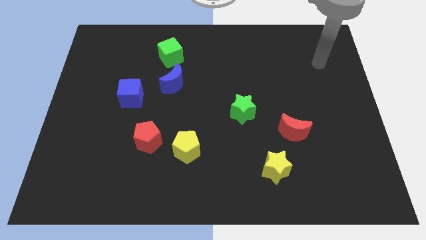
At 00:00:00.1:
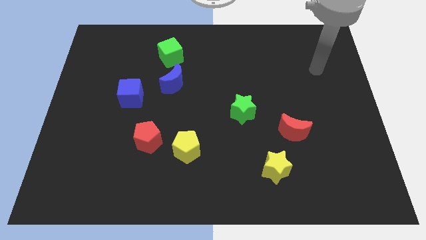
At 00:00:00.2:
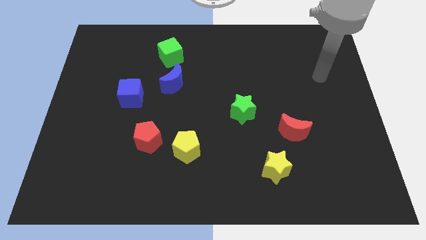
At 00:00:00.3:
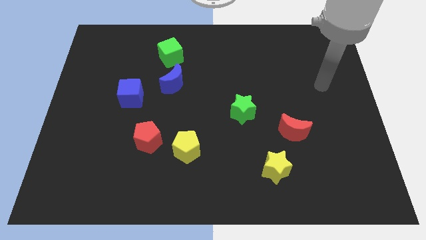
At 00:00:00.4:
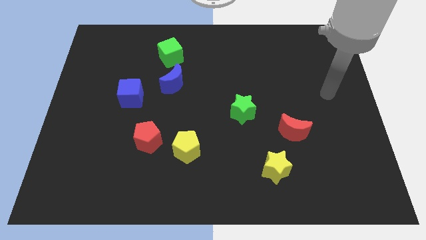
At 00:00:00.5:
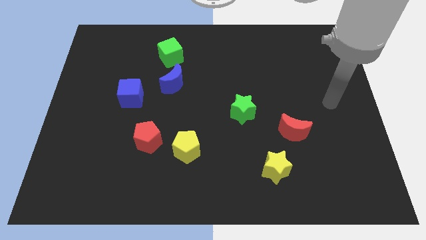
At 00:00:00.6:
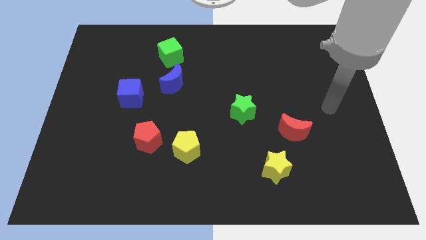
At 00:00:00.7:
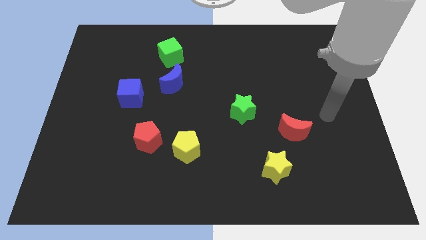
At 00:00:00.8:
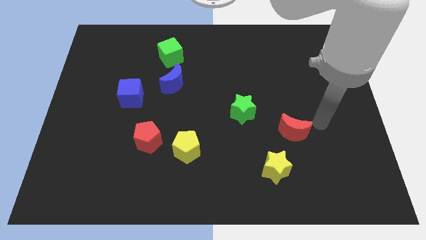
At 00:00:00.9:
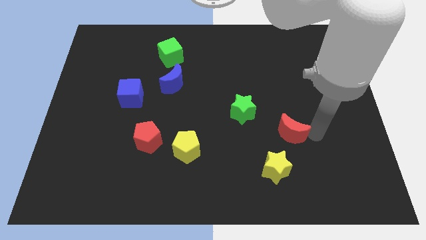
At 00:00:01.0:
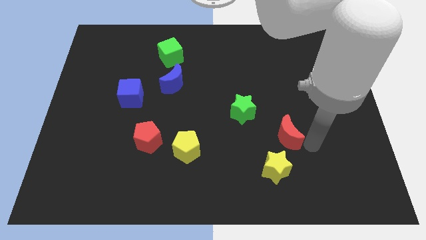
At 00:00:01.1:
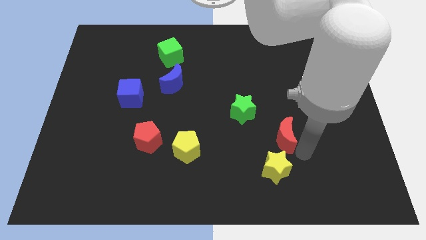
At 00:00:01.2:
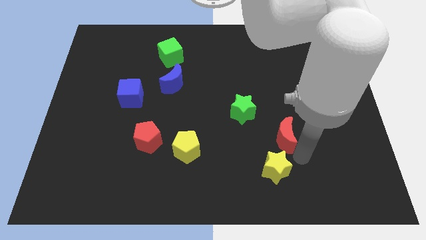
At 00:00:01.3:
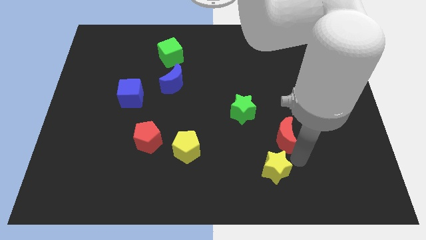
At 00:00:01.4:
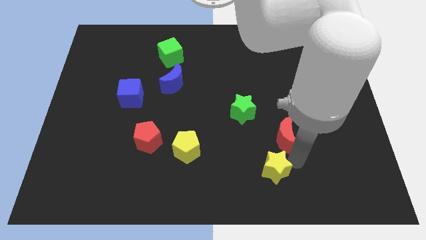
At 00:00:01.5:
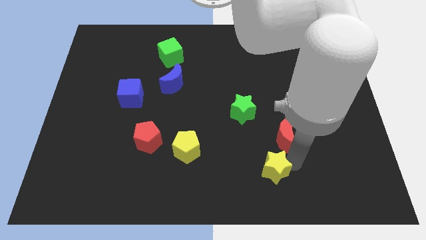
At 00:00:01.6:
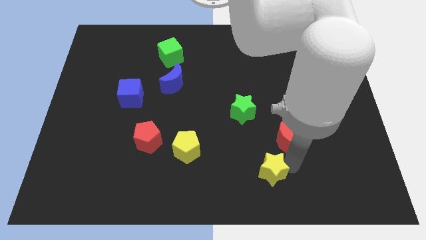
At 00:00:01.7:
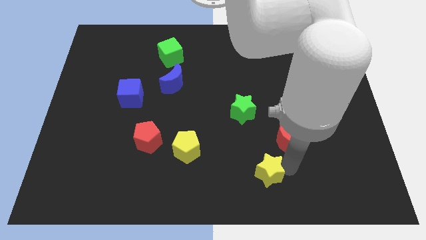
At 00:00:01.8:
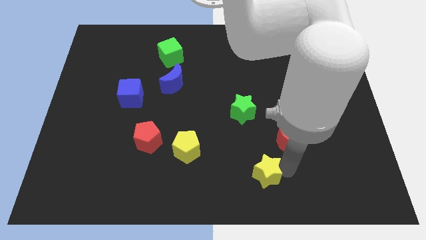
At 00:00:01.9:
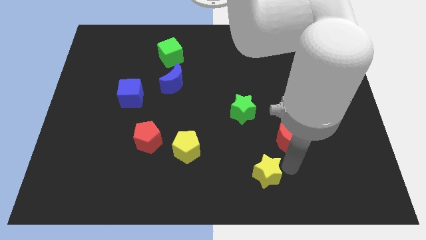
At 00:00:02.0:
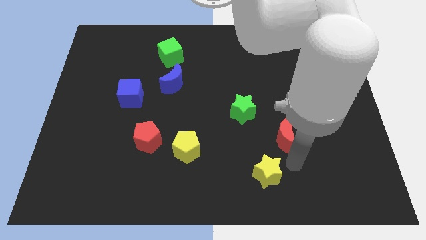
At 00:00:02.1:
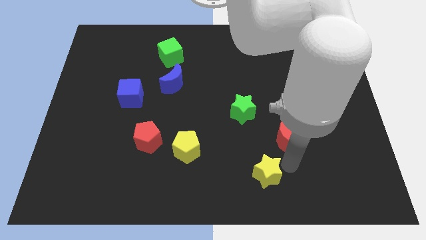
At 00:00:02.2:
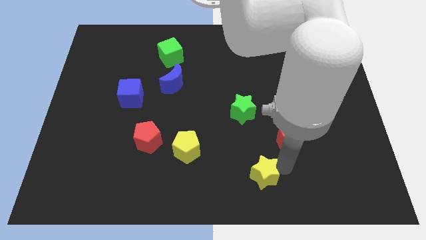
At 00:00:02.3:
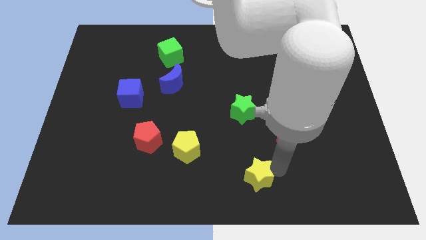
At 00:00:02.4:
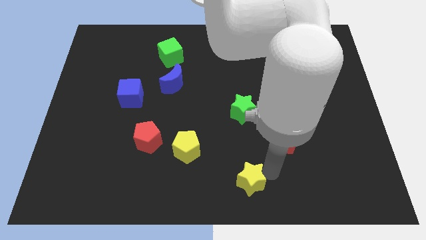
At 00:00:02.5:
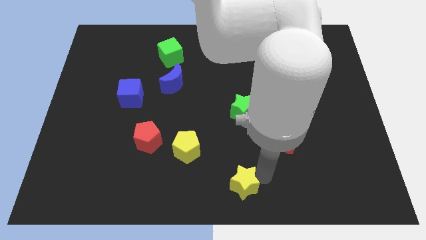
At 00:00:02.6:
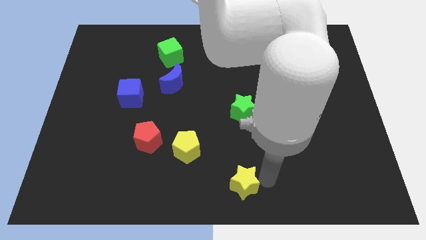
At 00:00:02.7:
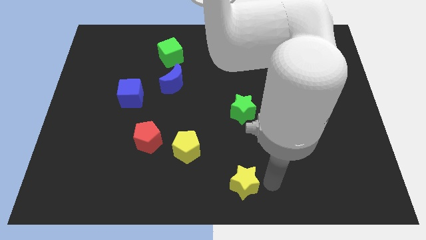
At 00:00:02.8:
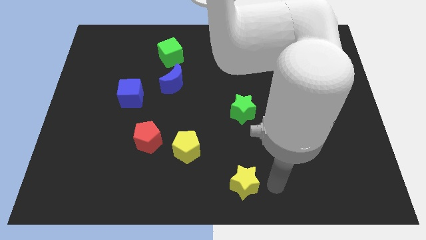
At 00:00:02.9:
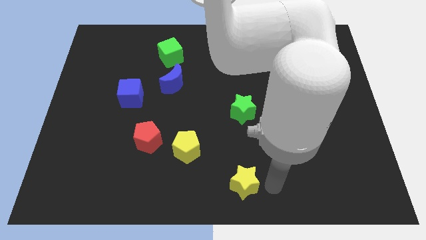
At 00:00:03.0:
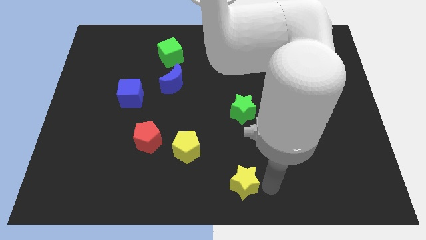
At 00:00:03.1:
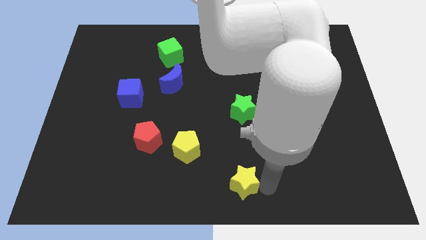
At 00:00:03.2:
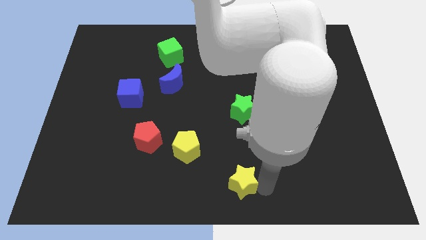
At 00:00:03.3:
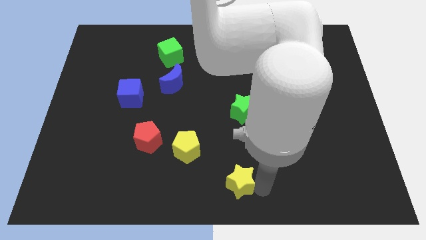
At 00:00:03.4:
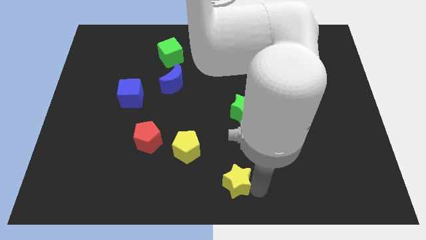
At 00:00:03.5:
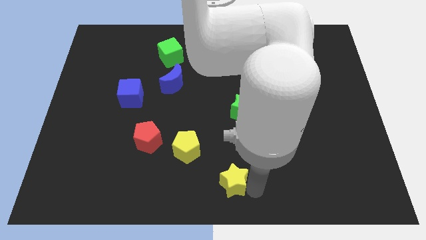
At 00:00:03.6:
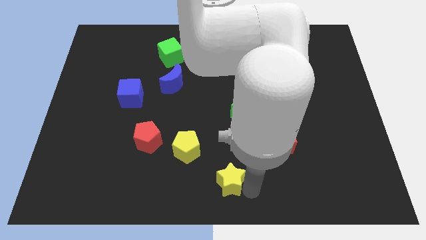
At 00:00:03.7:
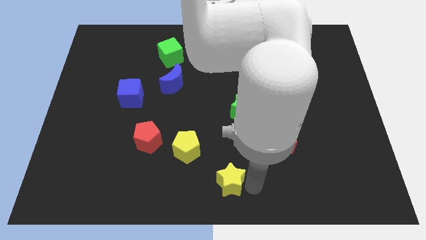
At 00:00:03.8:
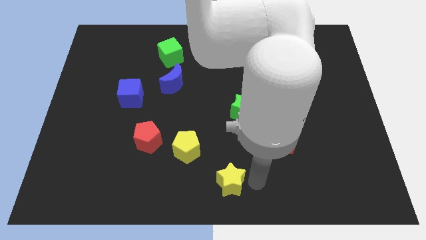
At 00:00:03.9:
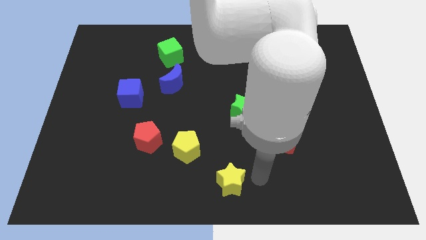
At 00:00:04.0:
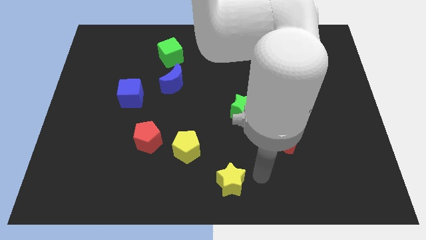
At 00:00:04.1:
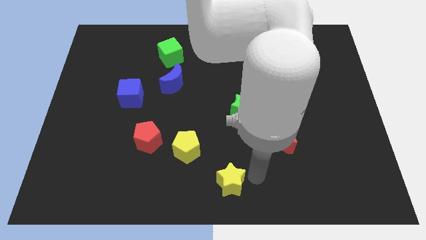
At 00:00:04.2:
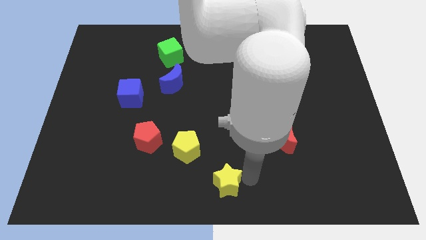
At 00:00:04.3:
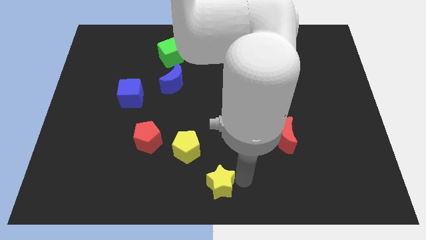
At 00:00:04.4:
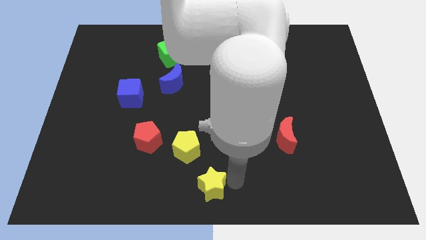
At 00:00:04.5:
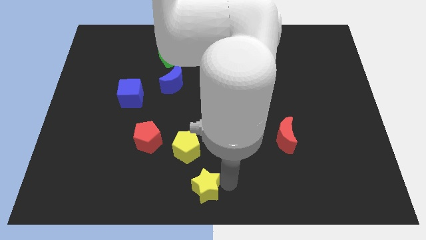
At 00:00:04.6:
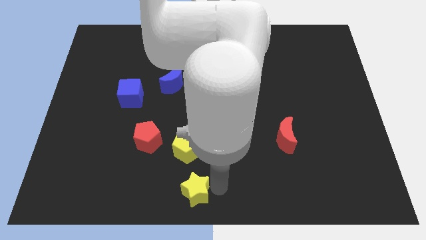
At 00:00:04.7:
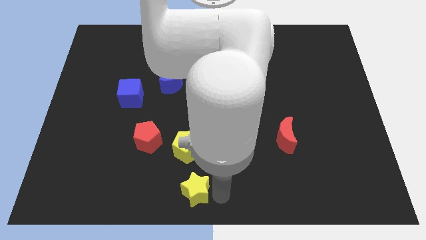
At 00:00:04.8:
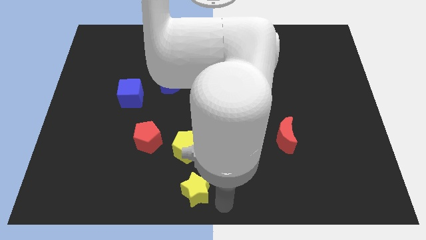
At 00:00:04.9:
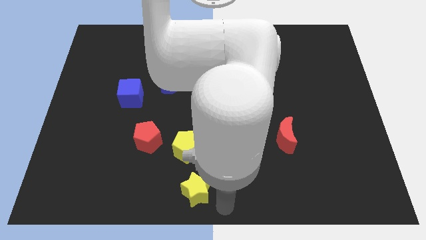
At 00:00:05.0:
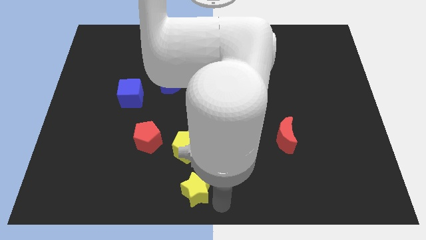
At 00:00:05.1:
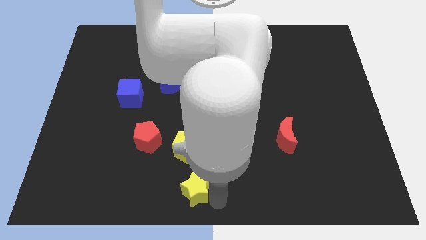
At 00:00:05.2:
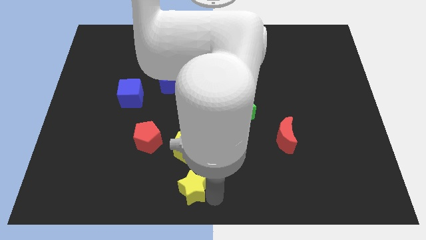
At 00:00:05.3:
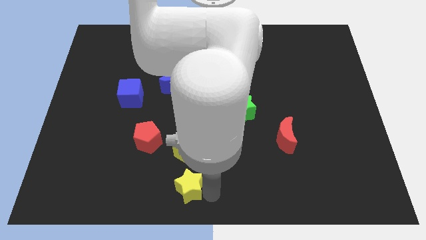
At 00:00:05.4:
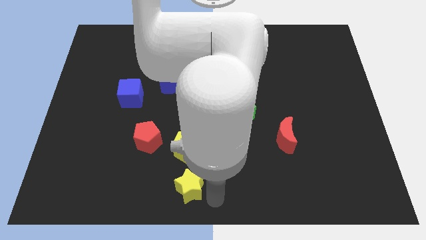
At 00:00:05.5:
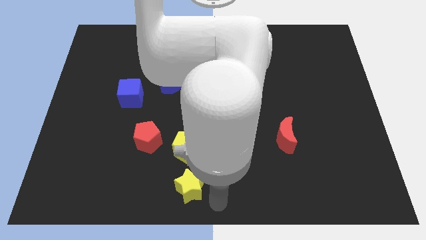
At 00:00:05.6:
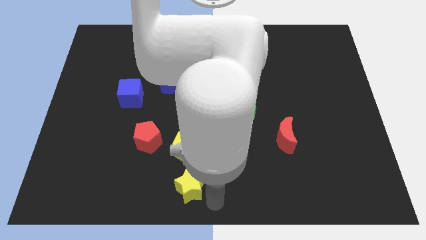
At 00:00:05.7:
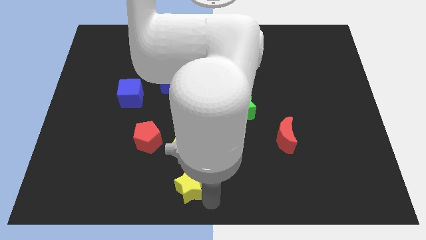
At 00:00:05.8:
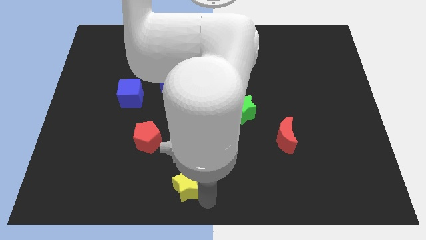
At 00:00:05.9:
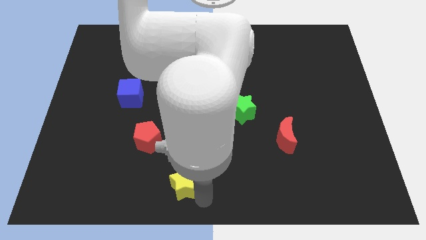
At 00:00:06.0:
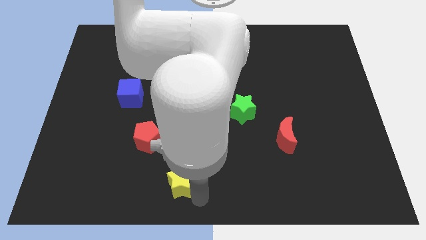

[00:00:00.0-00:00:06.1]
put the yellow star diagonally down and to the left of the yellow pentagon

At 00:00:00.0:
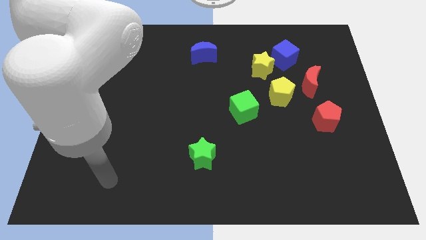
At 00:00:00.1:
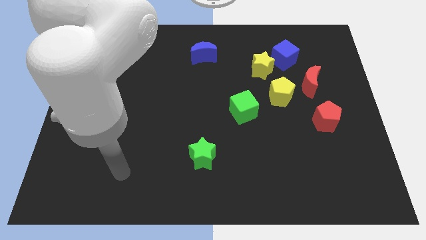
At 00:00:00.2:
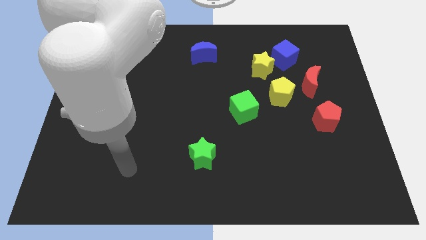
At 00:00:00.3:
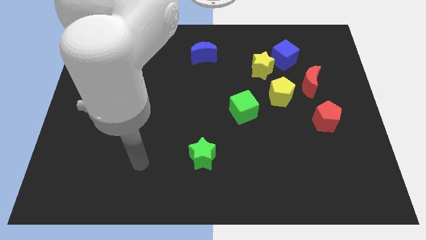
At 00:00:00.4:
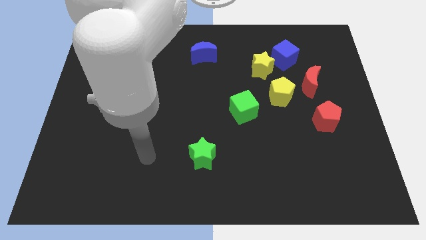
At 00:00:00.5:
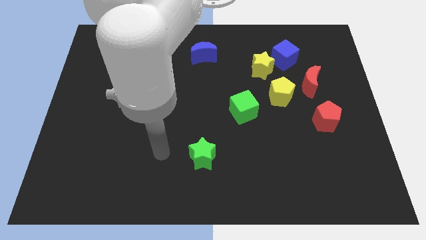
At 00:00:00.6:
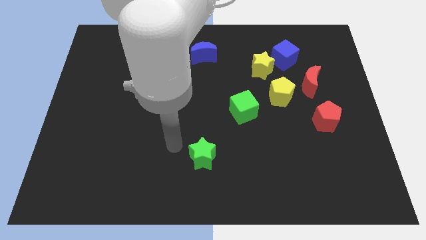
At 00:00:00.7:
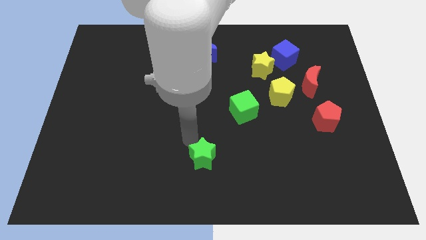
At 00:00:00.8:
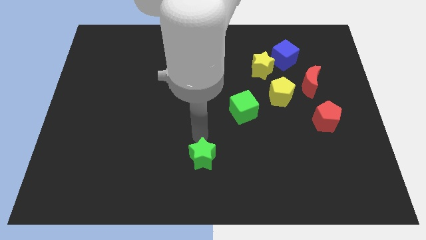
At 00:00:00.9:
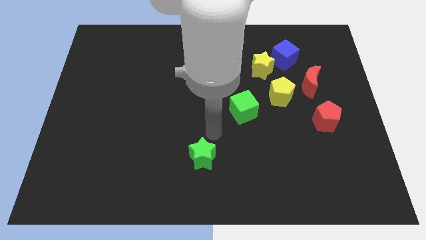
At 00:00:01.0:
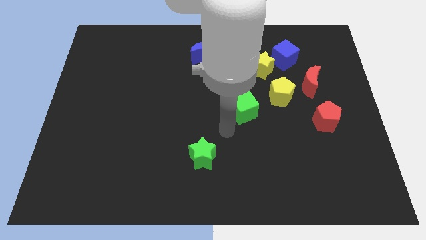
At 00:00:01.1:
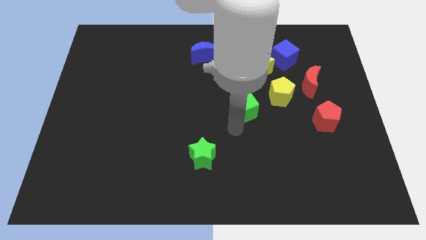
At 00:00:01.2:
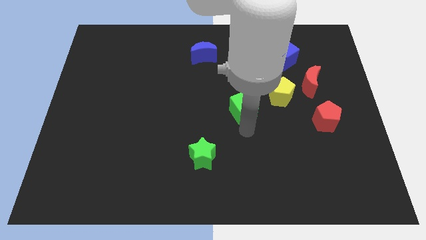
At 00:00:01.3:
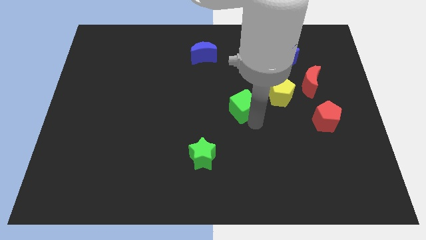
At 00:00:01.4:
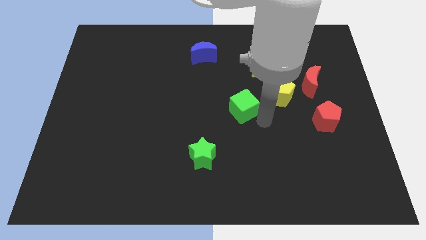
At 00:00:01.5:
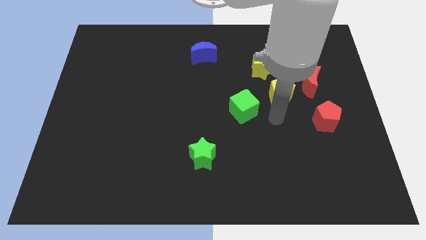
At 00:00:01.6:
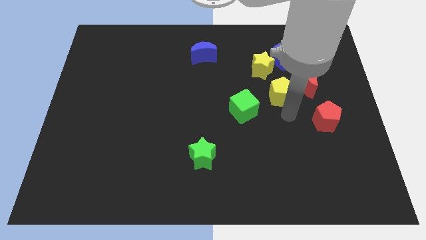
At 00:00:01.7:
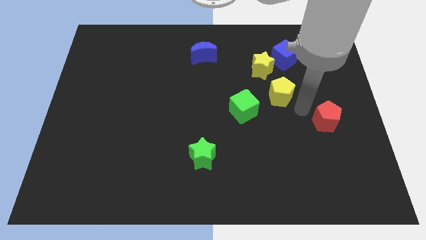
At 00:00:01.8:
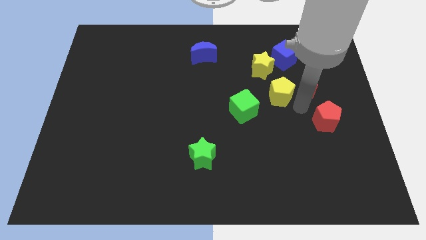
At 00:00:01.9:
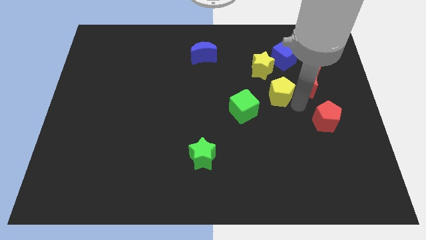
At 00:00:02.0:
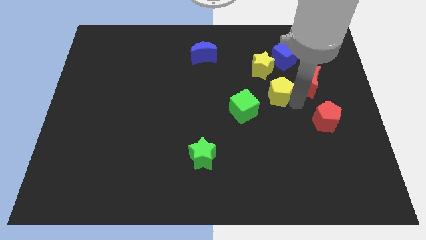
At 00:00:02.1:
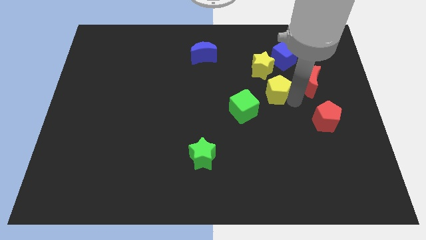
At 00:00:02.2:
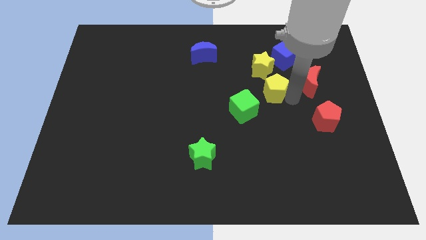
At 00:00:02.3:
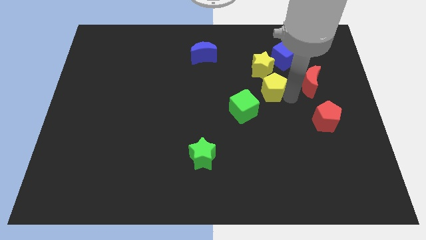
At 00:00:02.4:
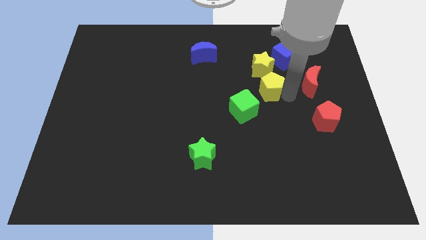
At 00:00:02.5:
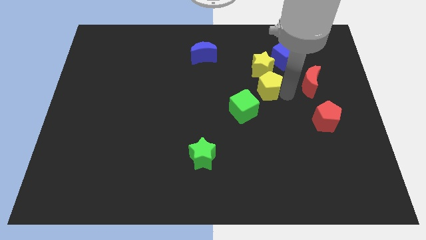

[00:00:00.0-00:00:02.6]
slide the yellow pentagon to the bottom left side of the blue cube
